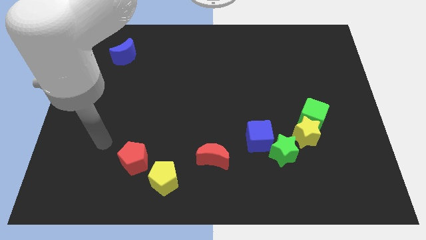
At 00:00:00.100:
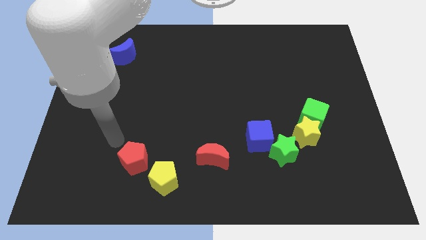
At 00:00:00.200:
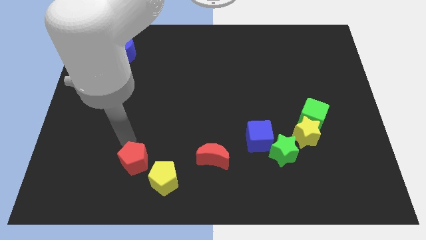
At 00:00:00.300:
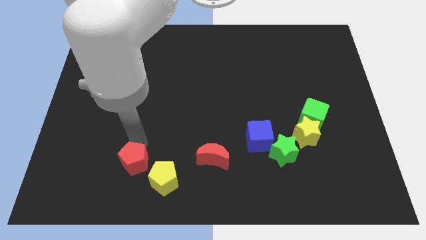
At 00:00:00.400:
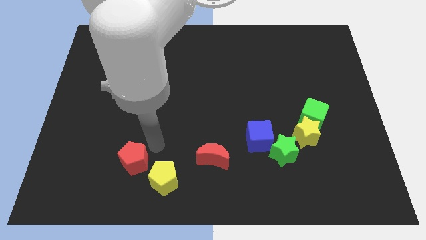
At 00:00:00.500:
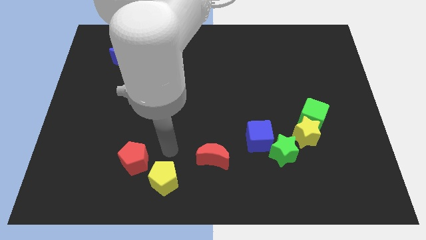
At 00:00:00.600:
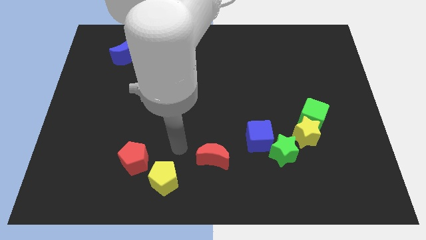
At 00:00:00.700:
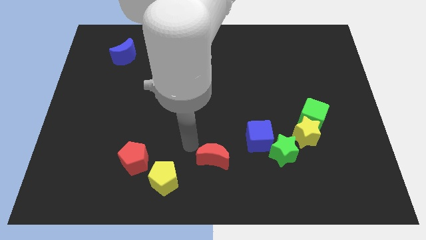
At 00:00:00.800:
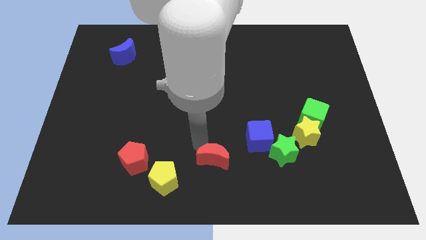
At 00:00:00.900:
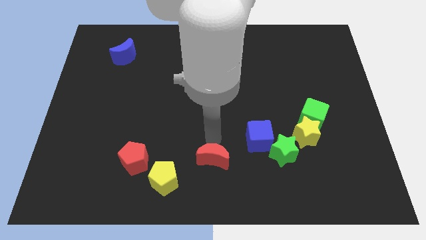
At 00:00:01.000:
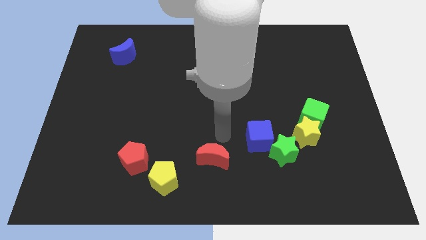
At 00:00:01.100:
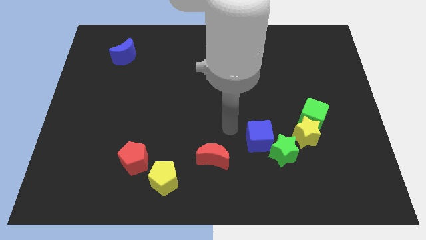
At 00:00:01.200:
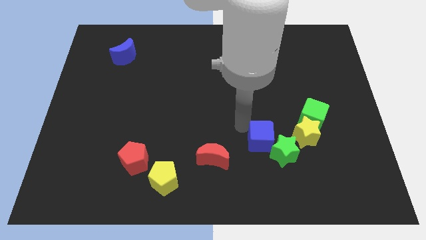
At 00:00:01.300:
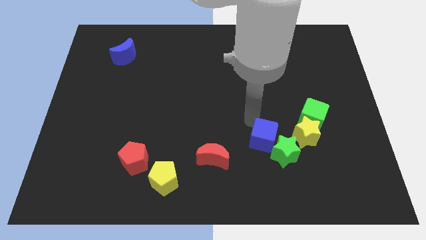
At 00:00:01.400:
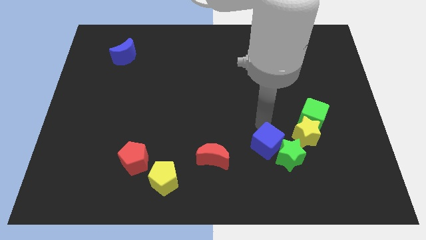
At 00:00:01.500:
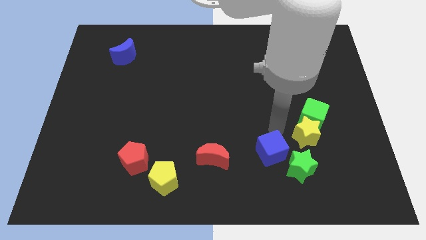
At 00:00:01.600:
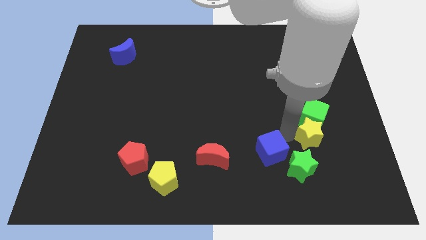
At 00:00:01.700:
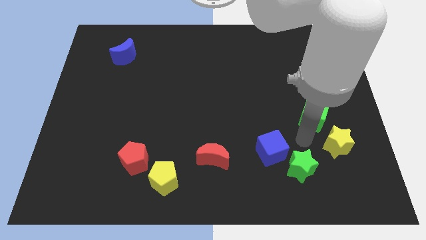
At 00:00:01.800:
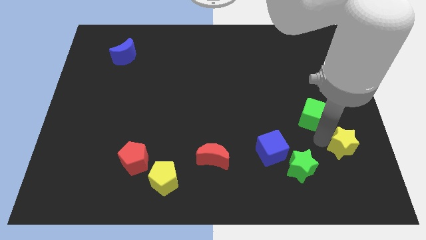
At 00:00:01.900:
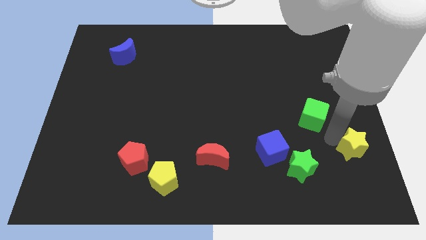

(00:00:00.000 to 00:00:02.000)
pull the green cube apart from the yellow star

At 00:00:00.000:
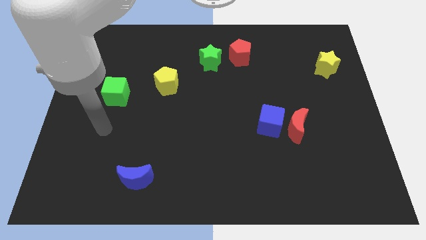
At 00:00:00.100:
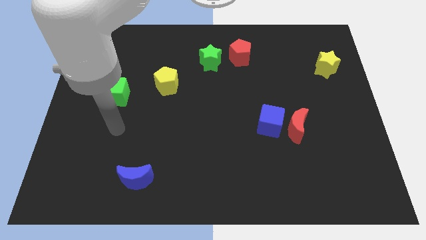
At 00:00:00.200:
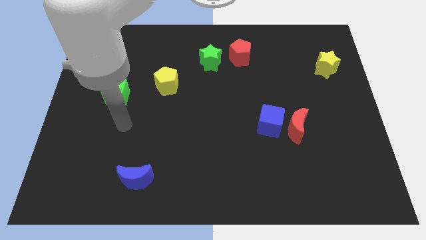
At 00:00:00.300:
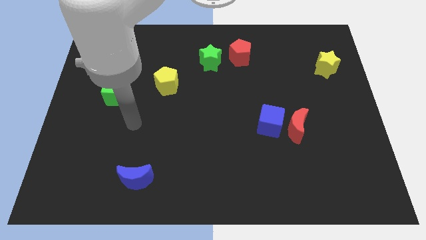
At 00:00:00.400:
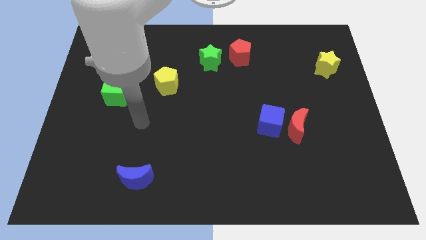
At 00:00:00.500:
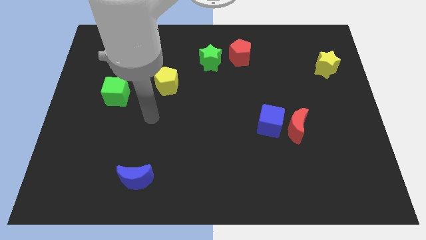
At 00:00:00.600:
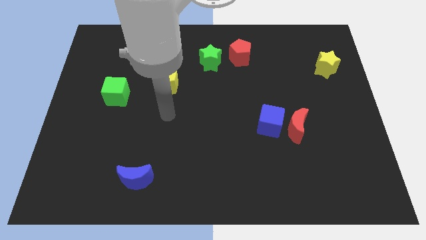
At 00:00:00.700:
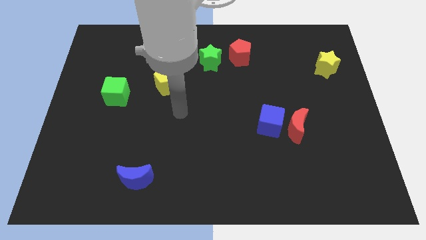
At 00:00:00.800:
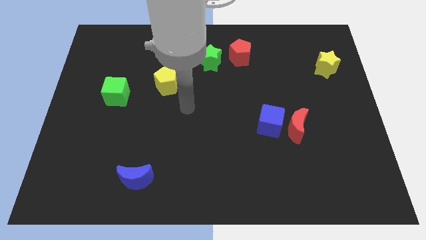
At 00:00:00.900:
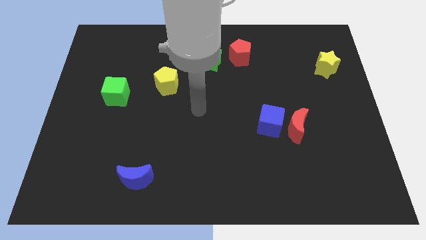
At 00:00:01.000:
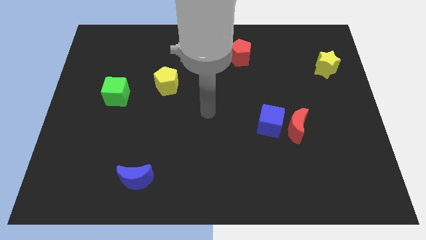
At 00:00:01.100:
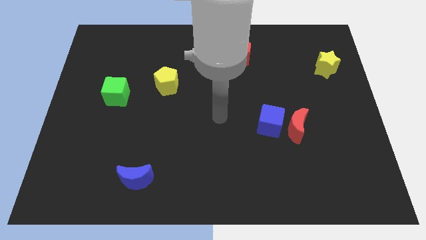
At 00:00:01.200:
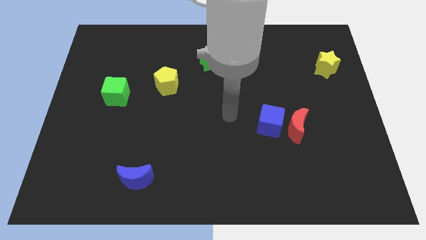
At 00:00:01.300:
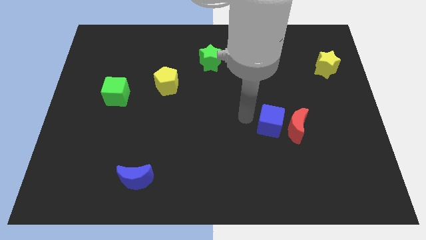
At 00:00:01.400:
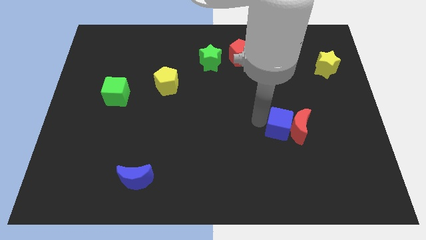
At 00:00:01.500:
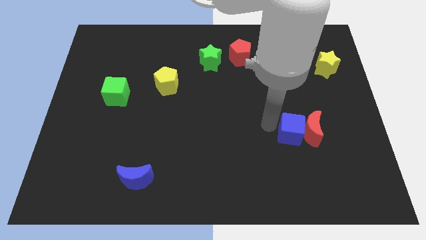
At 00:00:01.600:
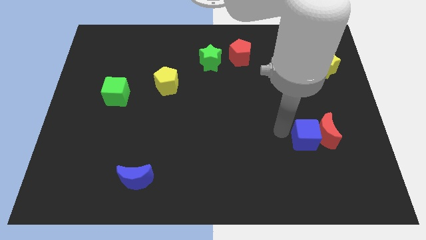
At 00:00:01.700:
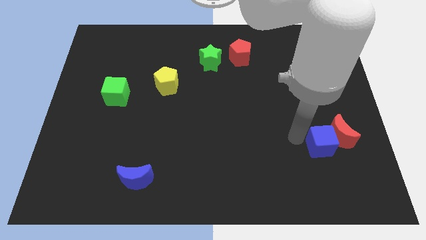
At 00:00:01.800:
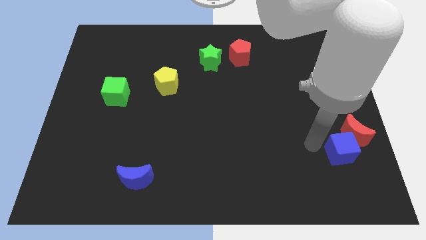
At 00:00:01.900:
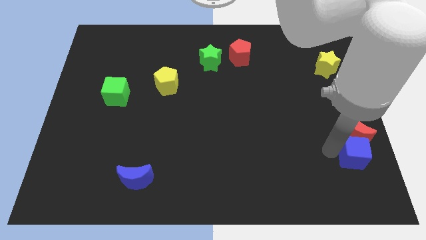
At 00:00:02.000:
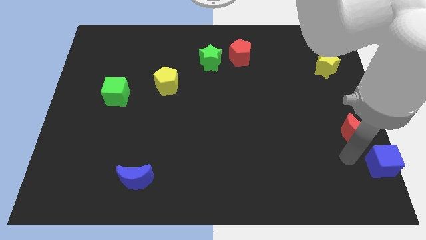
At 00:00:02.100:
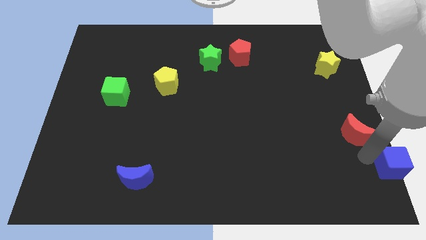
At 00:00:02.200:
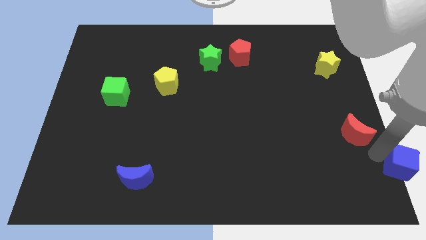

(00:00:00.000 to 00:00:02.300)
pull the red moon apart from the blue cube

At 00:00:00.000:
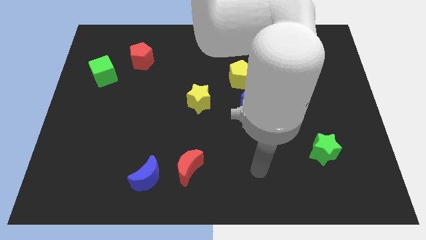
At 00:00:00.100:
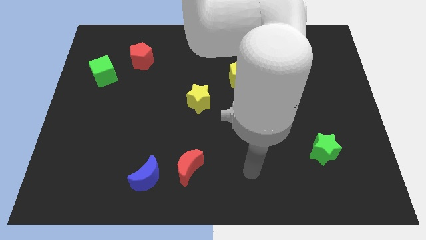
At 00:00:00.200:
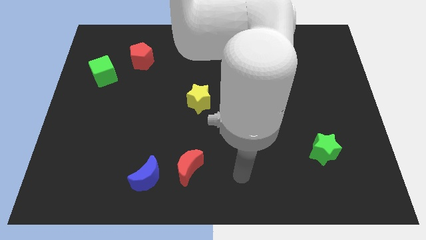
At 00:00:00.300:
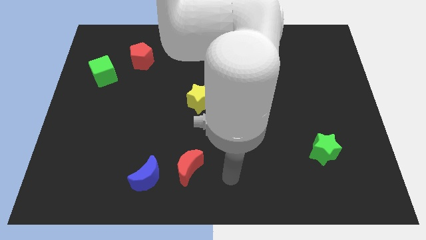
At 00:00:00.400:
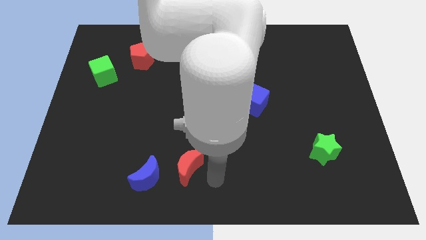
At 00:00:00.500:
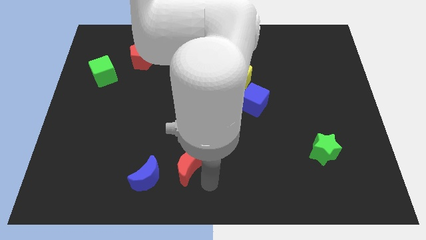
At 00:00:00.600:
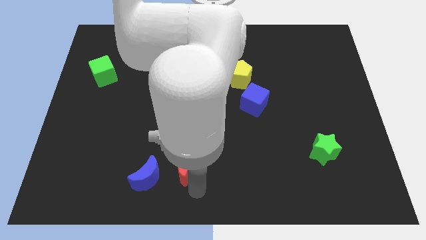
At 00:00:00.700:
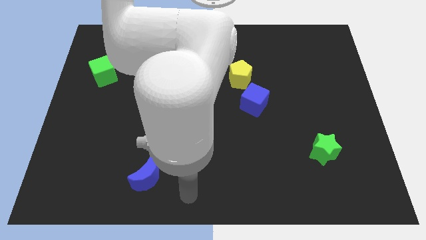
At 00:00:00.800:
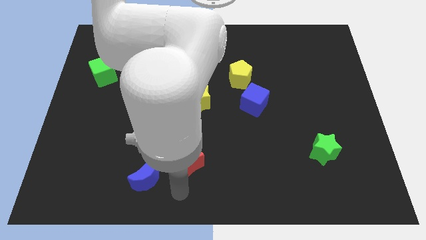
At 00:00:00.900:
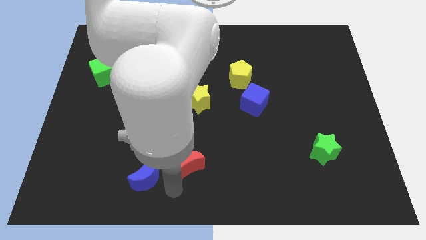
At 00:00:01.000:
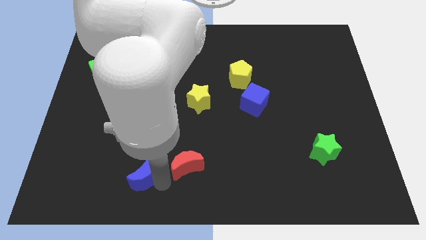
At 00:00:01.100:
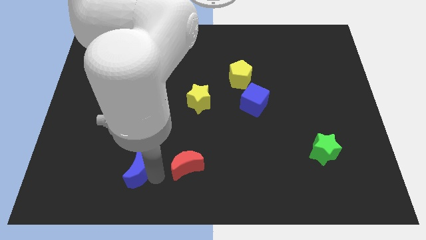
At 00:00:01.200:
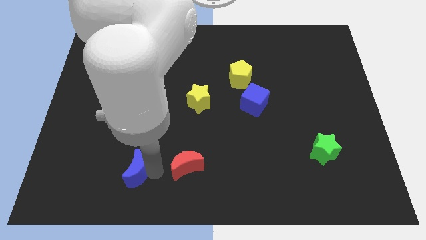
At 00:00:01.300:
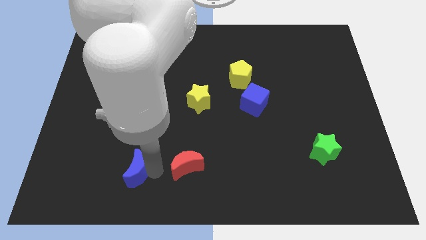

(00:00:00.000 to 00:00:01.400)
separate the red moon from the blue moon

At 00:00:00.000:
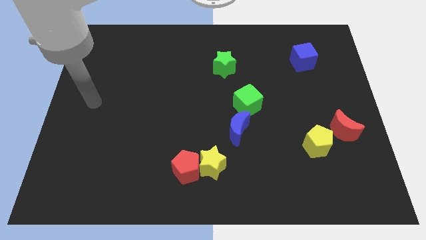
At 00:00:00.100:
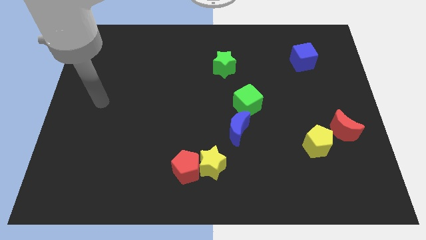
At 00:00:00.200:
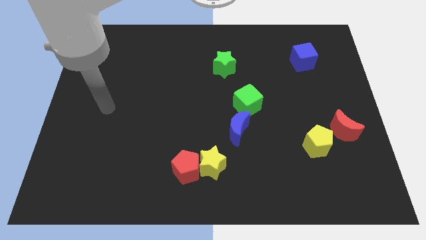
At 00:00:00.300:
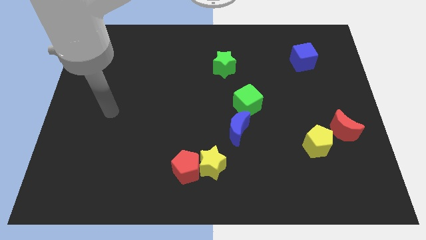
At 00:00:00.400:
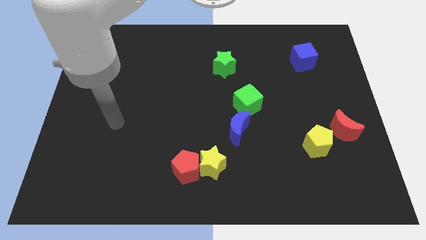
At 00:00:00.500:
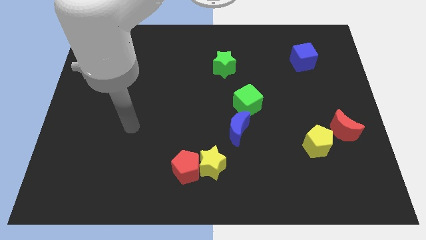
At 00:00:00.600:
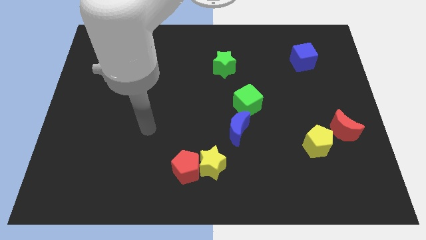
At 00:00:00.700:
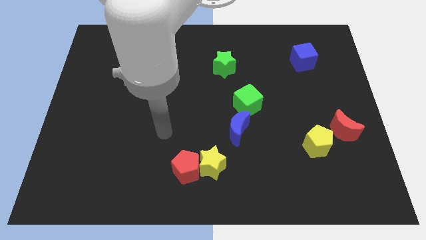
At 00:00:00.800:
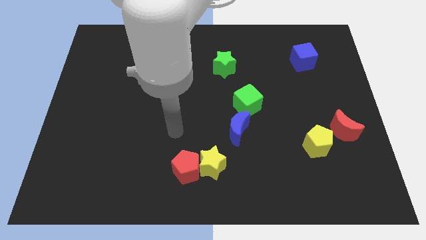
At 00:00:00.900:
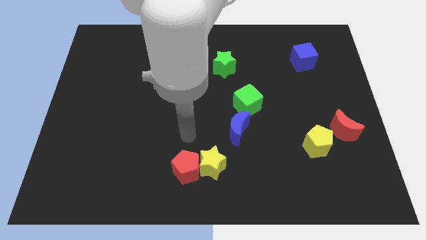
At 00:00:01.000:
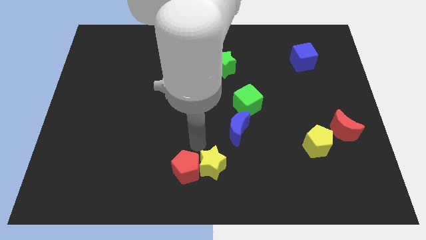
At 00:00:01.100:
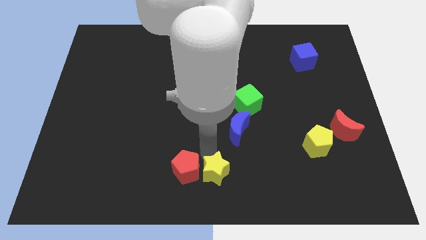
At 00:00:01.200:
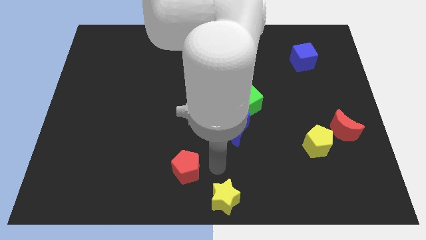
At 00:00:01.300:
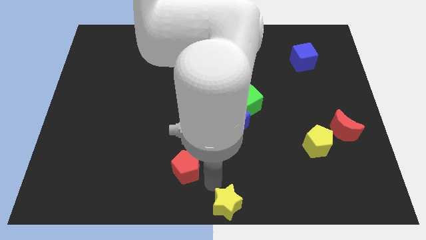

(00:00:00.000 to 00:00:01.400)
move the red pentagon away from the yellow star

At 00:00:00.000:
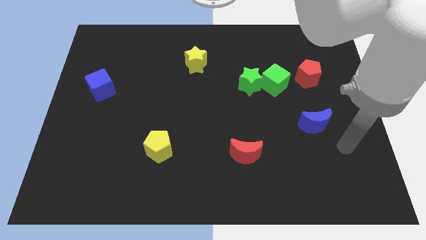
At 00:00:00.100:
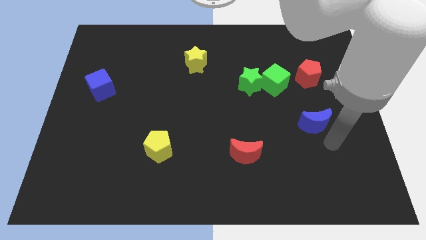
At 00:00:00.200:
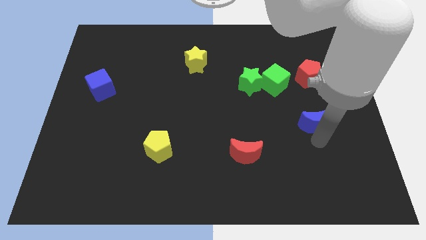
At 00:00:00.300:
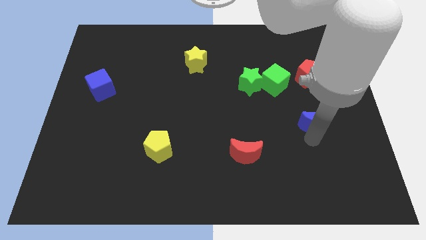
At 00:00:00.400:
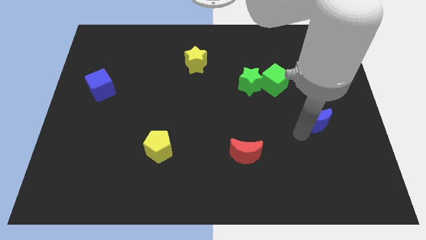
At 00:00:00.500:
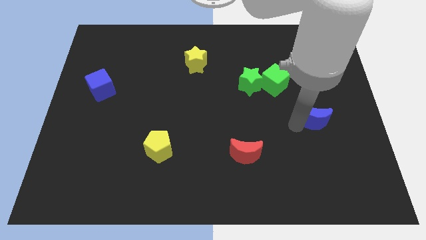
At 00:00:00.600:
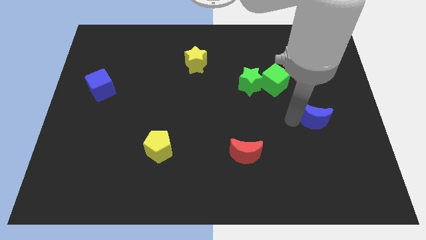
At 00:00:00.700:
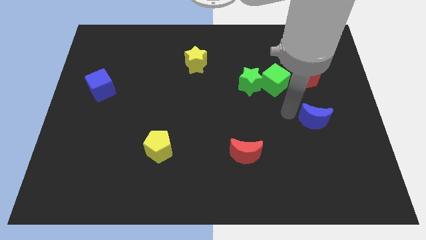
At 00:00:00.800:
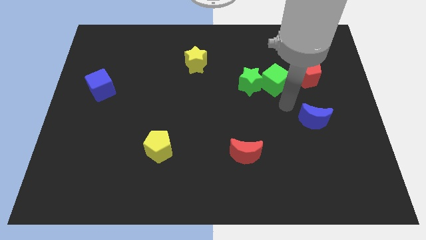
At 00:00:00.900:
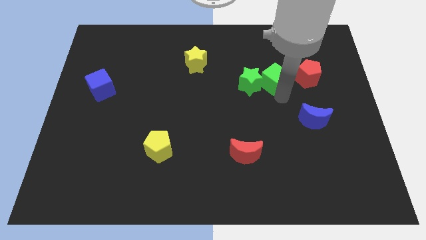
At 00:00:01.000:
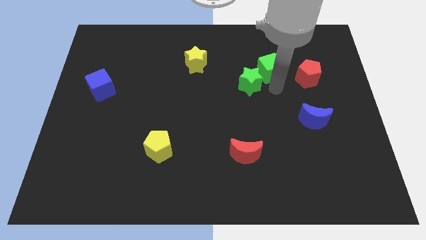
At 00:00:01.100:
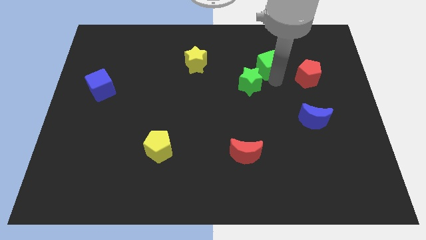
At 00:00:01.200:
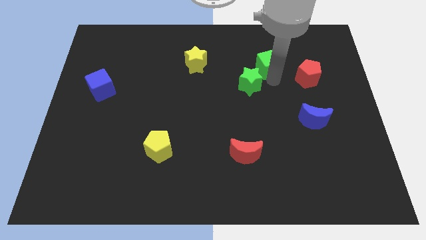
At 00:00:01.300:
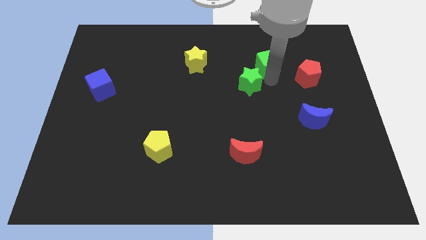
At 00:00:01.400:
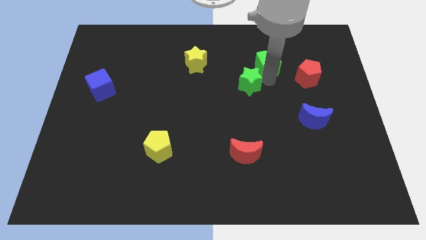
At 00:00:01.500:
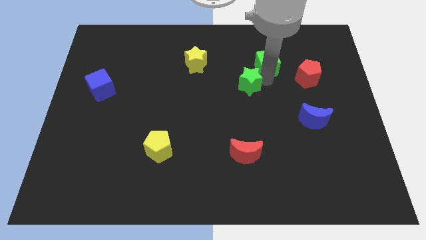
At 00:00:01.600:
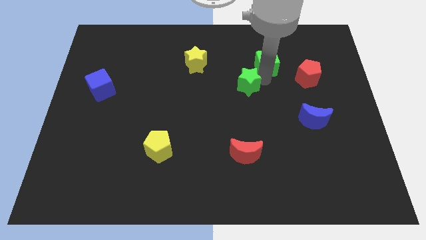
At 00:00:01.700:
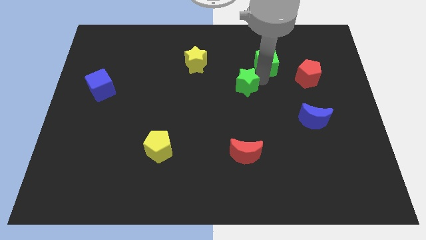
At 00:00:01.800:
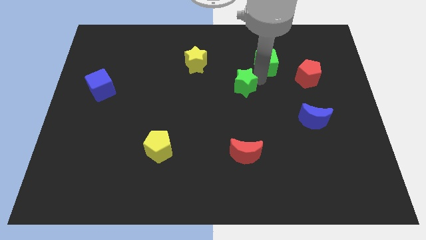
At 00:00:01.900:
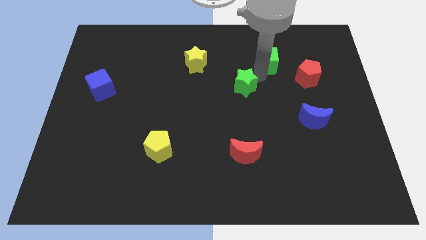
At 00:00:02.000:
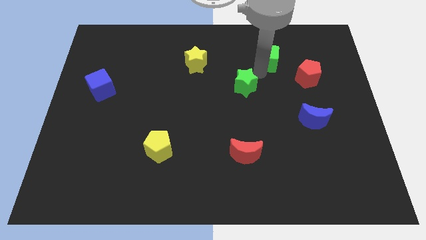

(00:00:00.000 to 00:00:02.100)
separate the green star from the green cube
